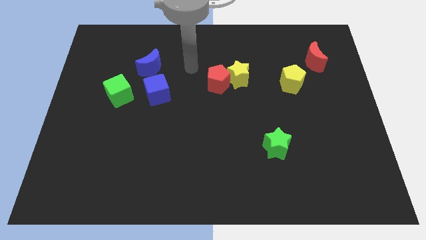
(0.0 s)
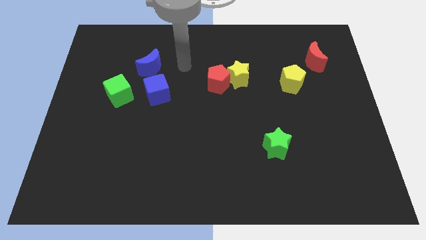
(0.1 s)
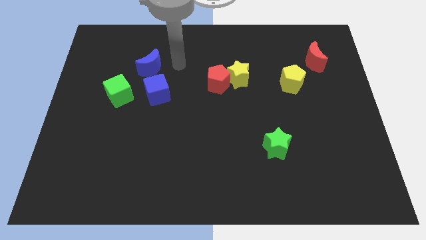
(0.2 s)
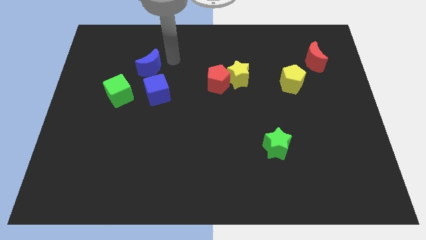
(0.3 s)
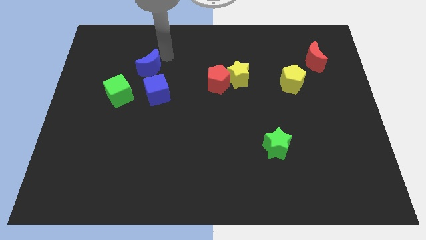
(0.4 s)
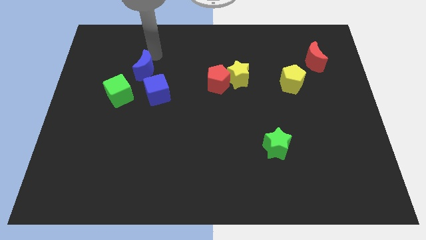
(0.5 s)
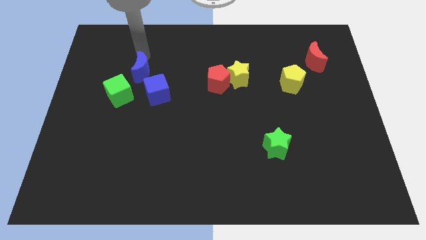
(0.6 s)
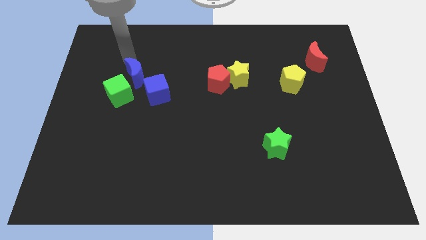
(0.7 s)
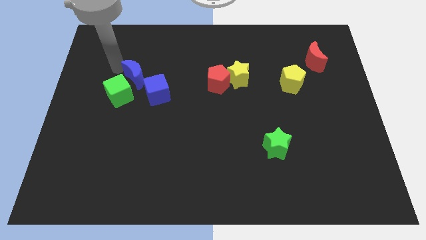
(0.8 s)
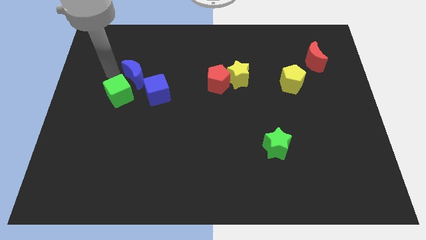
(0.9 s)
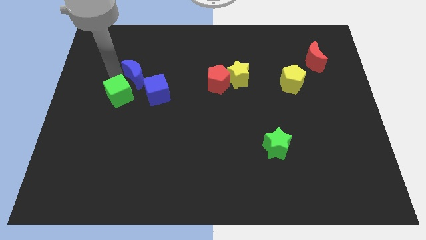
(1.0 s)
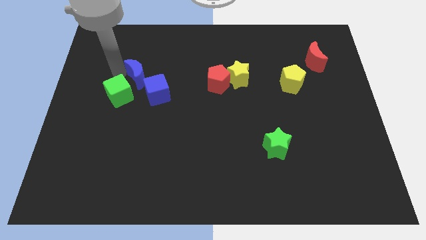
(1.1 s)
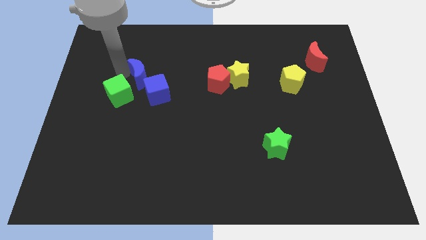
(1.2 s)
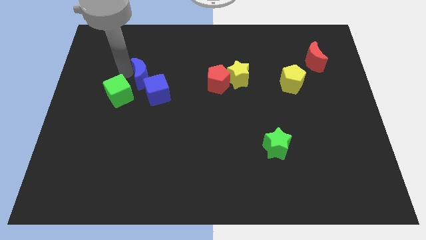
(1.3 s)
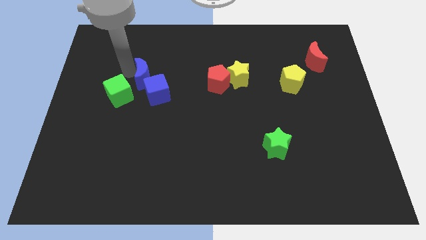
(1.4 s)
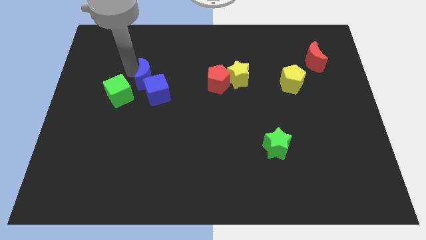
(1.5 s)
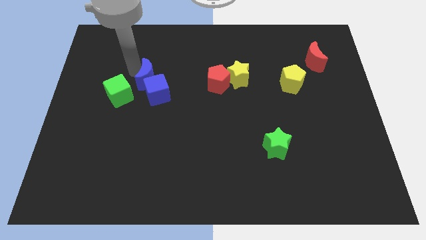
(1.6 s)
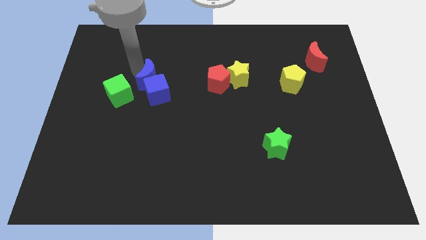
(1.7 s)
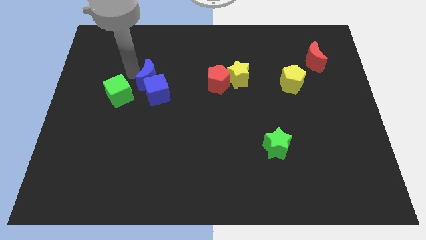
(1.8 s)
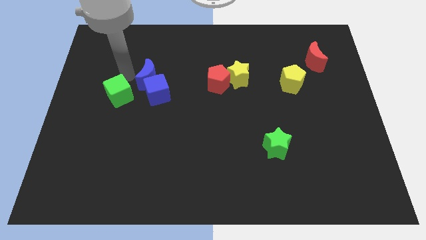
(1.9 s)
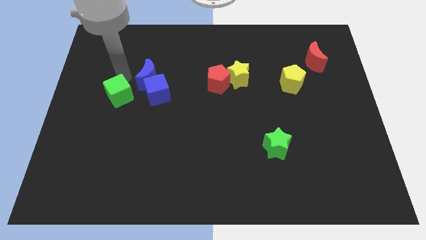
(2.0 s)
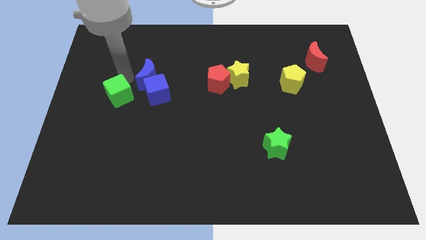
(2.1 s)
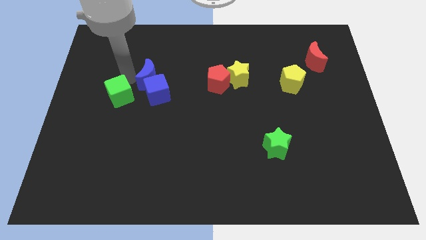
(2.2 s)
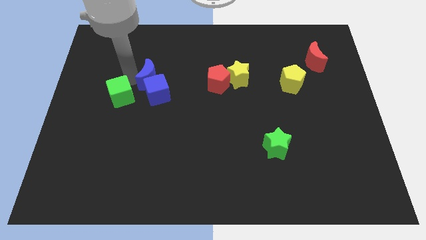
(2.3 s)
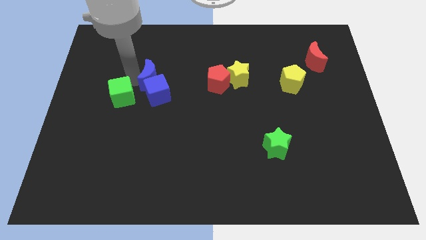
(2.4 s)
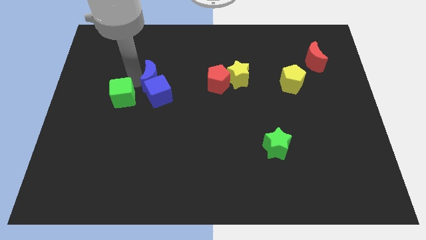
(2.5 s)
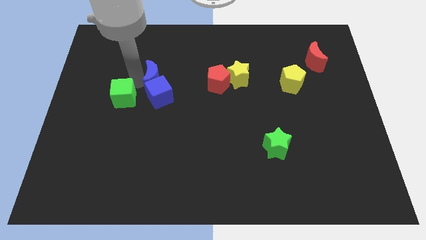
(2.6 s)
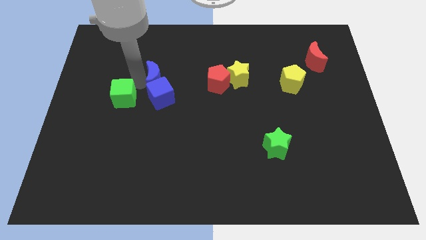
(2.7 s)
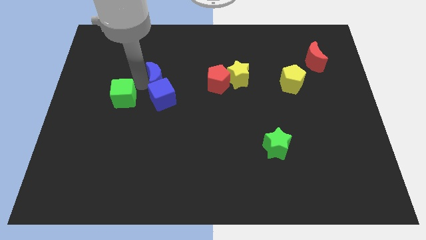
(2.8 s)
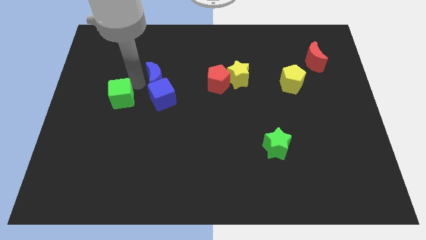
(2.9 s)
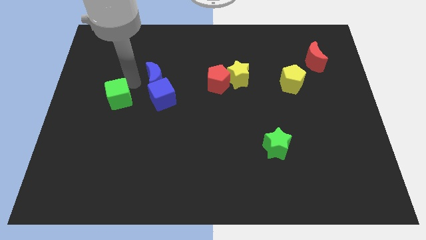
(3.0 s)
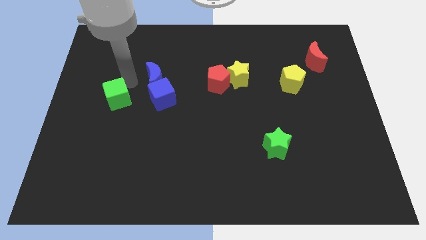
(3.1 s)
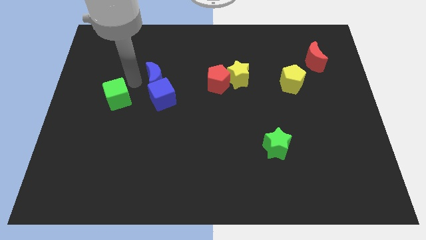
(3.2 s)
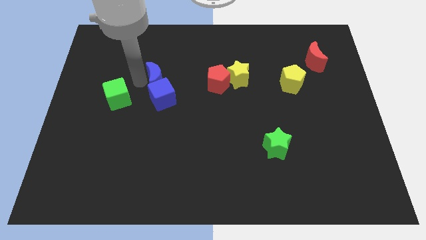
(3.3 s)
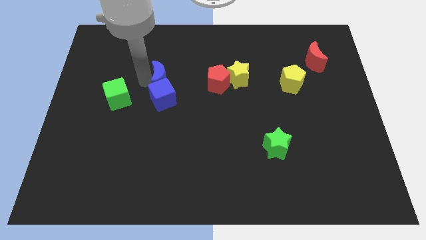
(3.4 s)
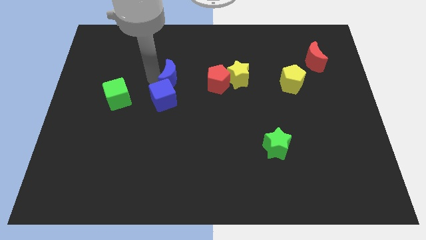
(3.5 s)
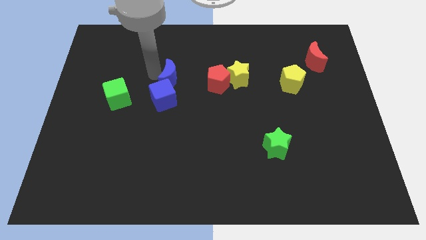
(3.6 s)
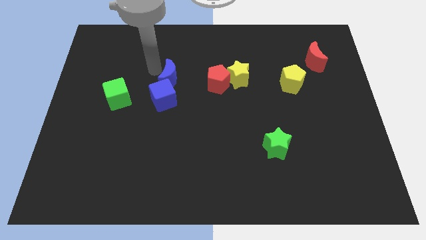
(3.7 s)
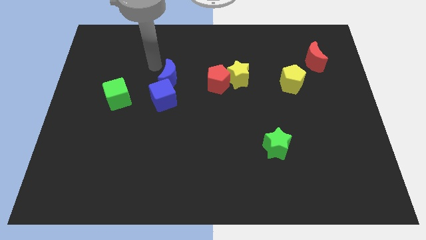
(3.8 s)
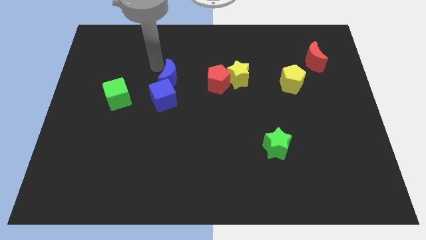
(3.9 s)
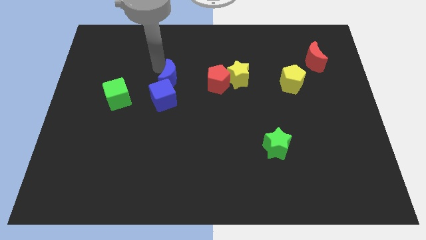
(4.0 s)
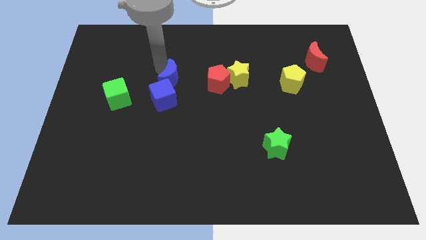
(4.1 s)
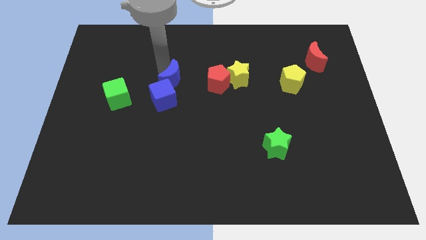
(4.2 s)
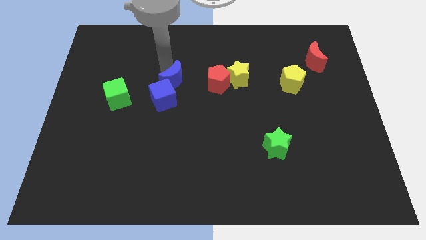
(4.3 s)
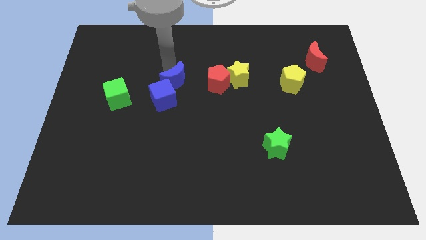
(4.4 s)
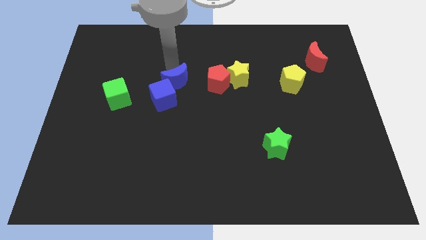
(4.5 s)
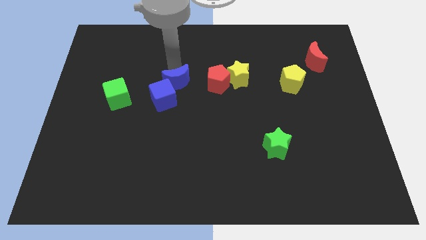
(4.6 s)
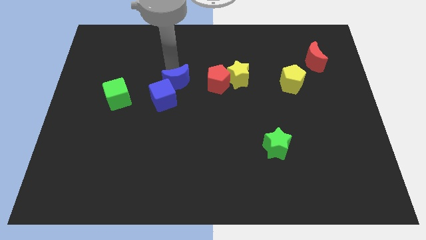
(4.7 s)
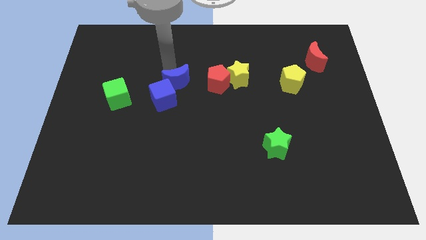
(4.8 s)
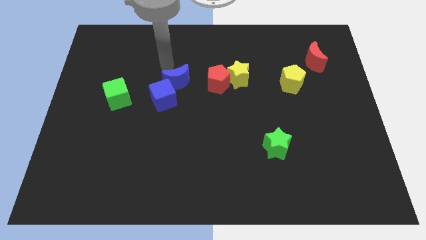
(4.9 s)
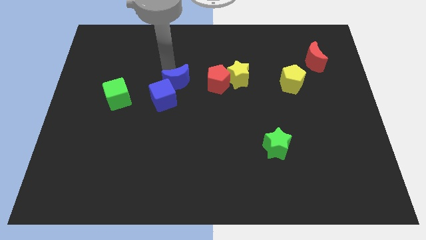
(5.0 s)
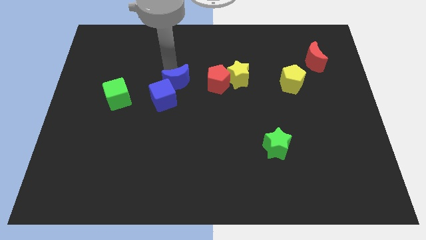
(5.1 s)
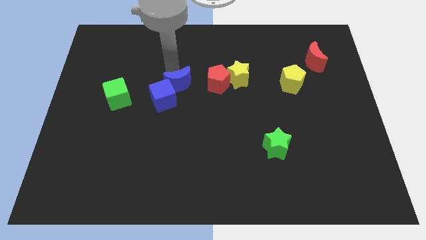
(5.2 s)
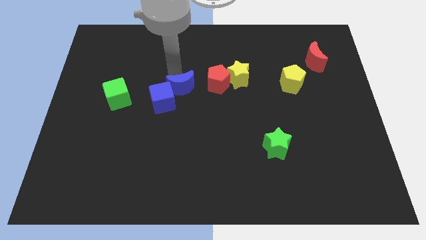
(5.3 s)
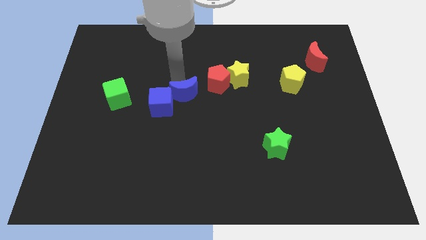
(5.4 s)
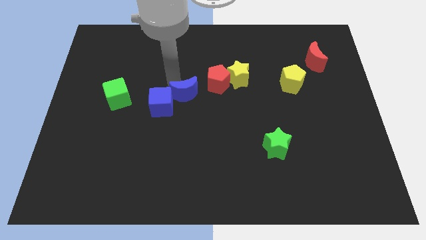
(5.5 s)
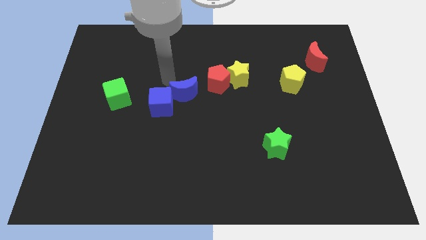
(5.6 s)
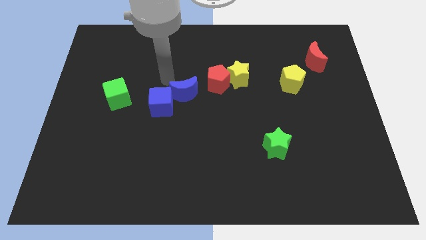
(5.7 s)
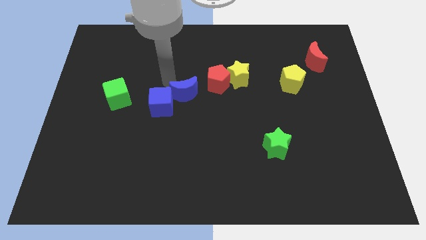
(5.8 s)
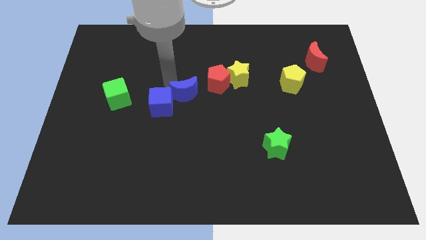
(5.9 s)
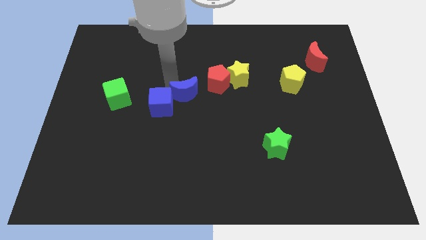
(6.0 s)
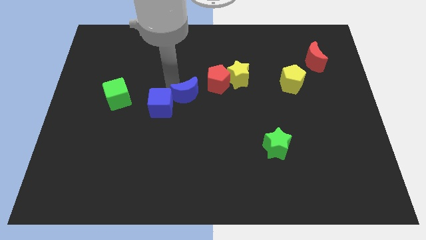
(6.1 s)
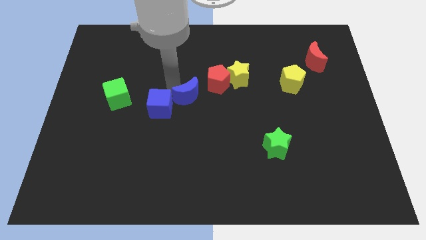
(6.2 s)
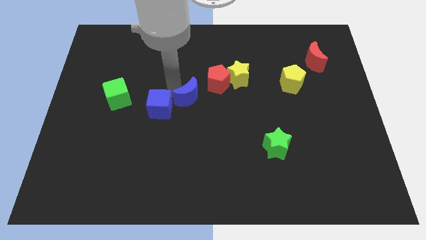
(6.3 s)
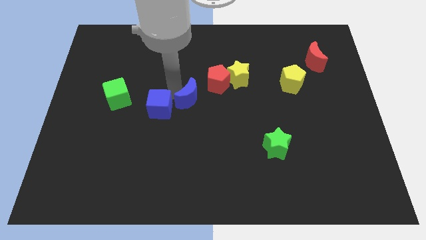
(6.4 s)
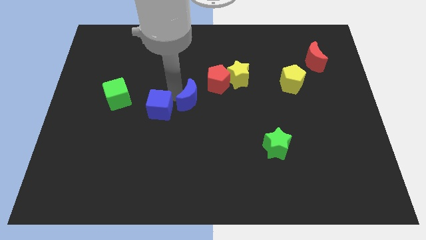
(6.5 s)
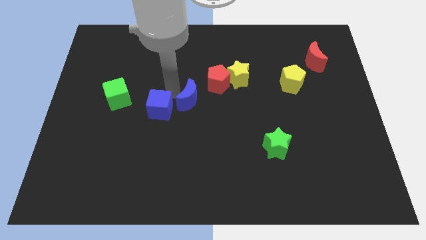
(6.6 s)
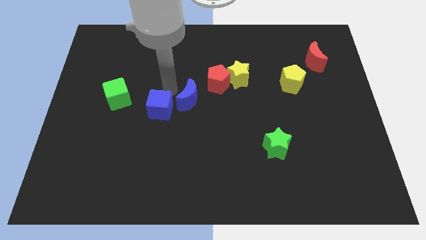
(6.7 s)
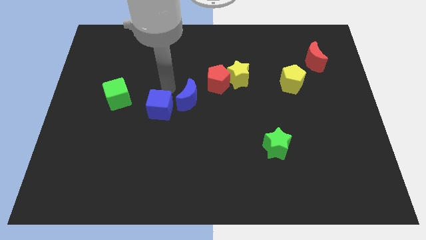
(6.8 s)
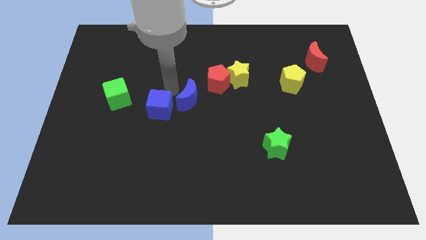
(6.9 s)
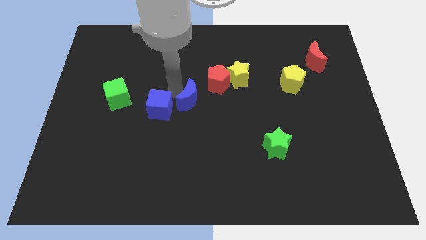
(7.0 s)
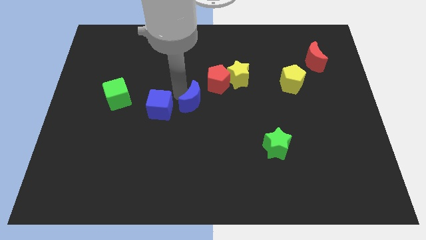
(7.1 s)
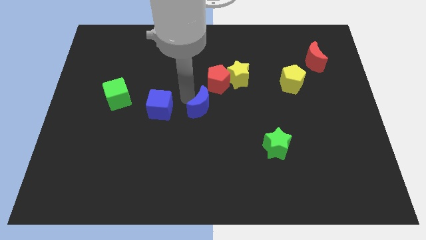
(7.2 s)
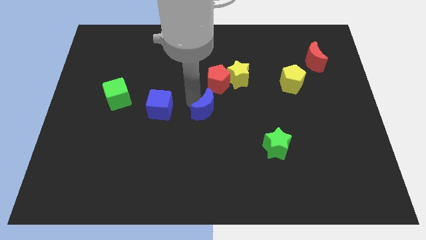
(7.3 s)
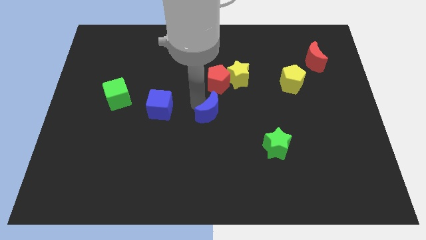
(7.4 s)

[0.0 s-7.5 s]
move the blue moon downwards and to the right diagonally

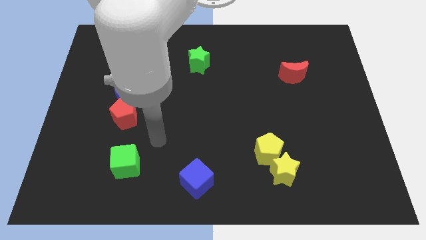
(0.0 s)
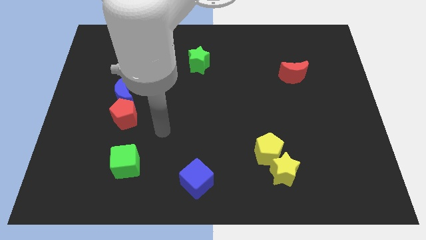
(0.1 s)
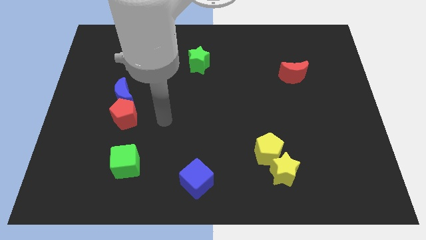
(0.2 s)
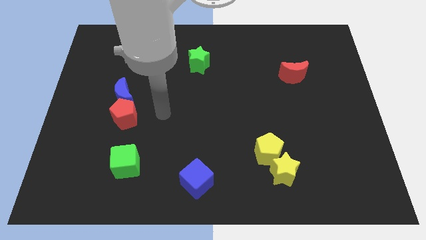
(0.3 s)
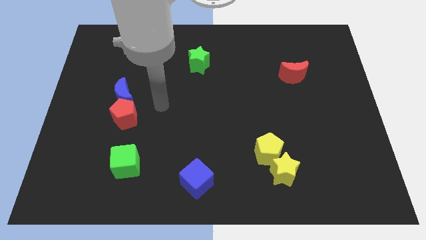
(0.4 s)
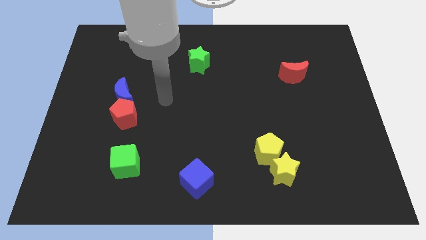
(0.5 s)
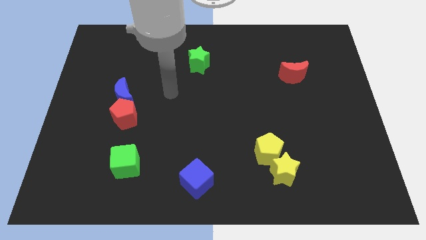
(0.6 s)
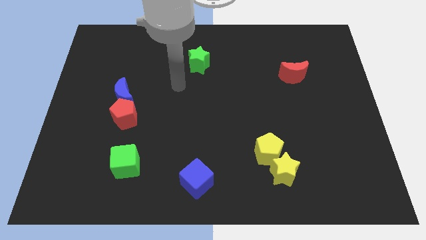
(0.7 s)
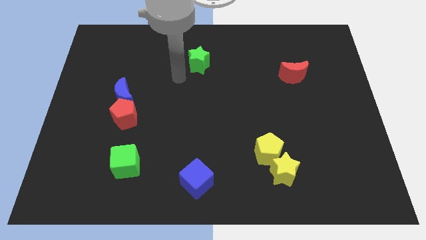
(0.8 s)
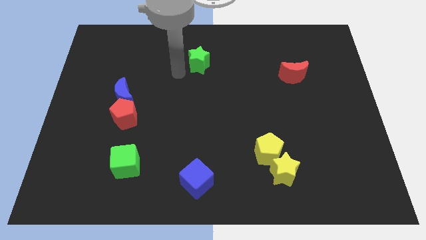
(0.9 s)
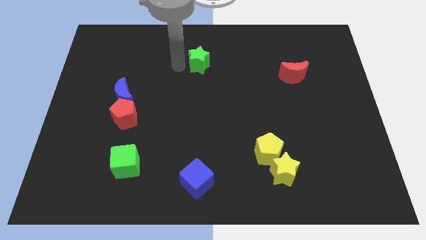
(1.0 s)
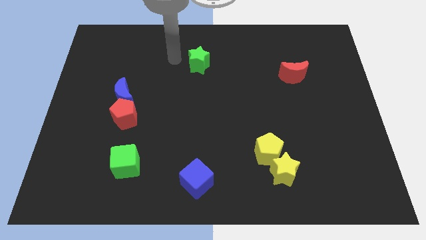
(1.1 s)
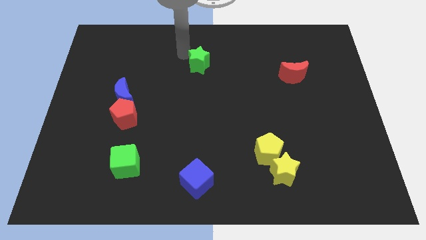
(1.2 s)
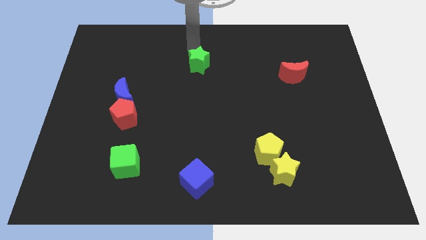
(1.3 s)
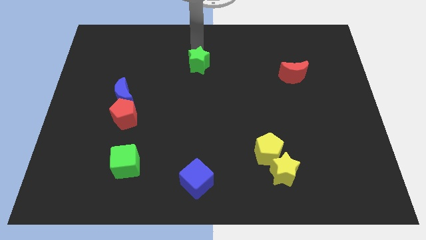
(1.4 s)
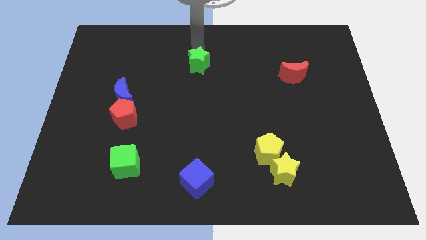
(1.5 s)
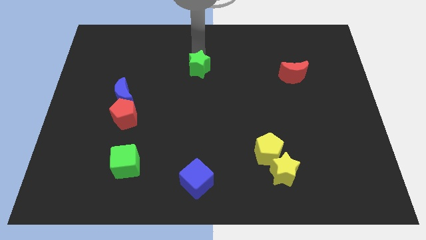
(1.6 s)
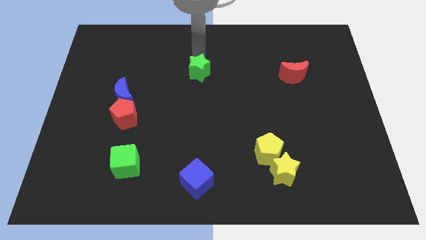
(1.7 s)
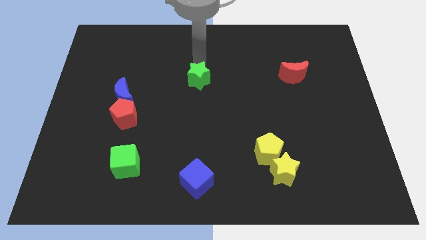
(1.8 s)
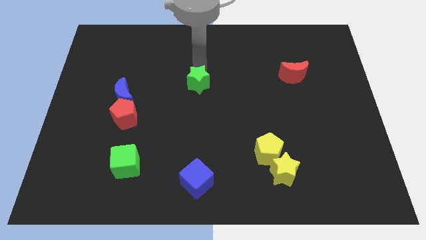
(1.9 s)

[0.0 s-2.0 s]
slightly move the green star down
